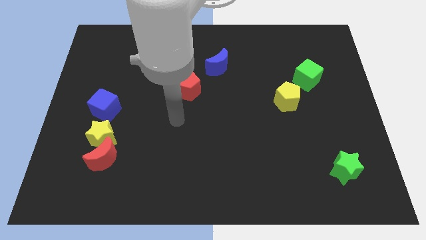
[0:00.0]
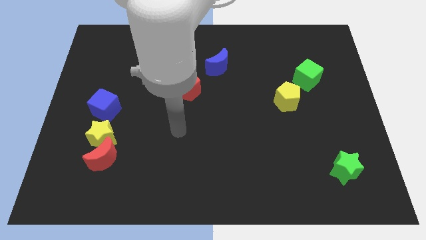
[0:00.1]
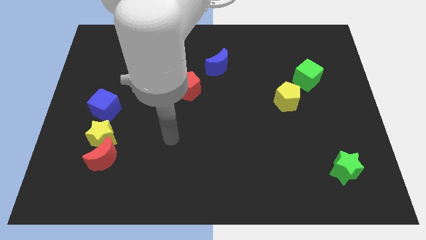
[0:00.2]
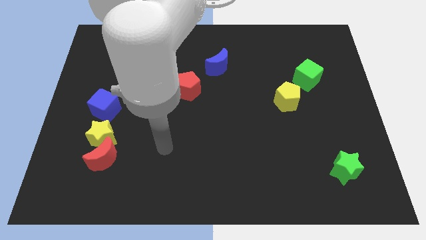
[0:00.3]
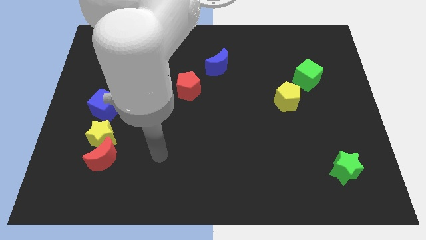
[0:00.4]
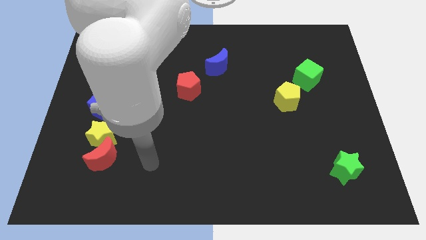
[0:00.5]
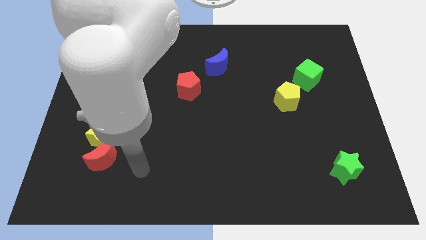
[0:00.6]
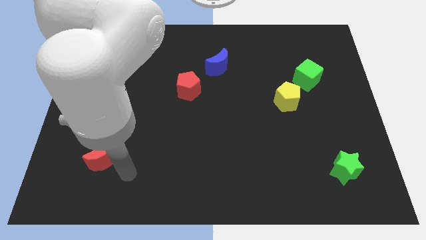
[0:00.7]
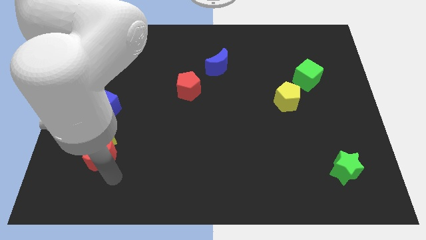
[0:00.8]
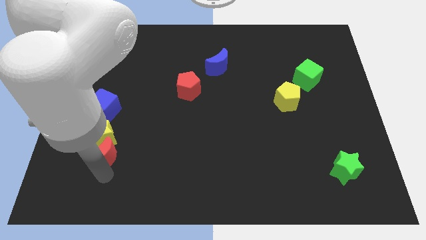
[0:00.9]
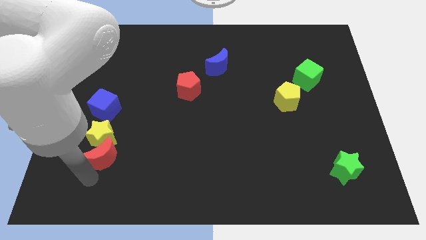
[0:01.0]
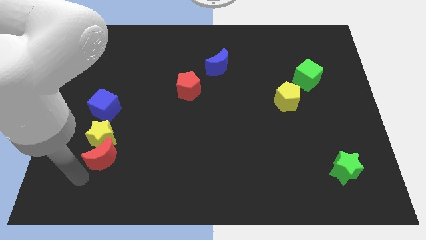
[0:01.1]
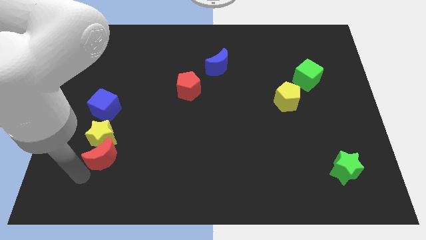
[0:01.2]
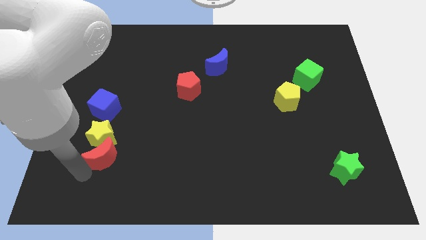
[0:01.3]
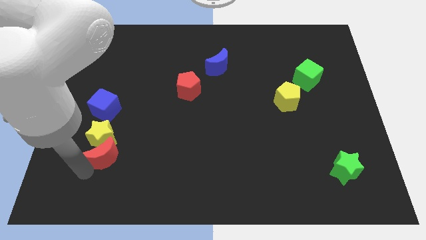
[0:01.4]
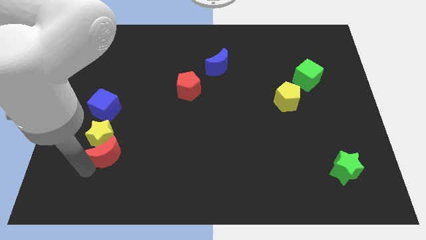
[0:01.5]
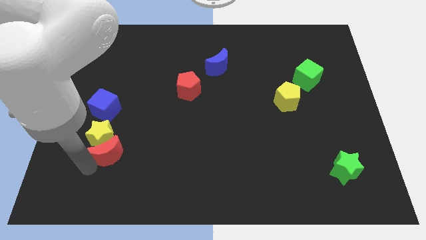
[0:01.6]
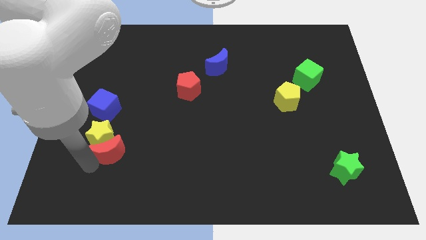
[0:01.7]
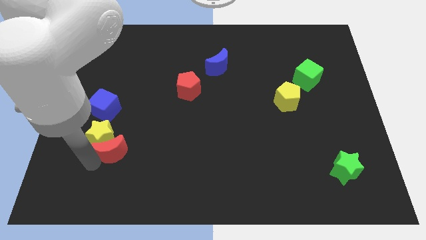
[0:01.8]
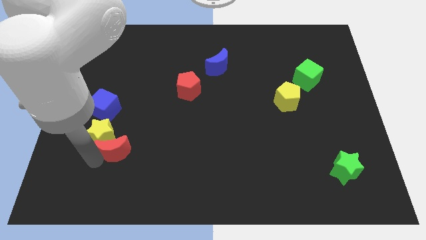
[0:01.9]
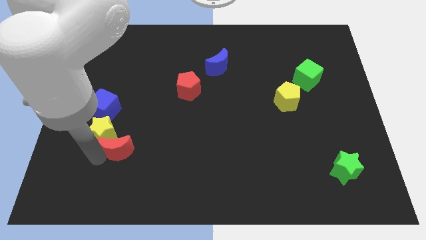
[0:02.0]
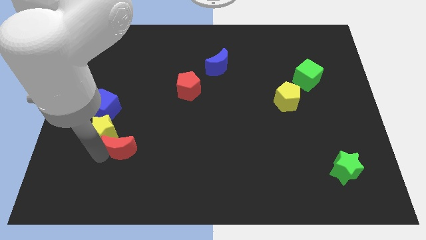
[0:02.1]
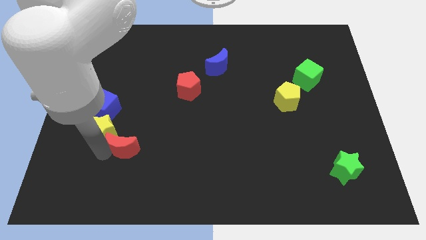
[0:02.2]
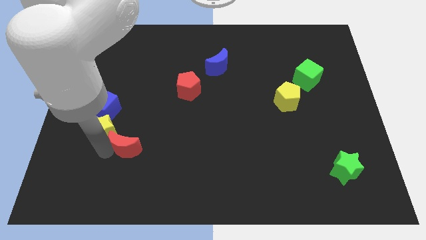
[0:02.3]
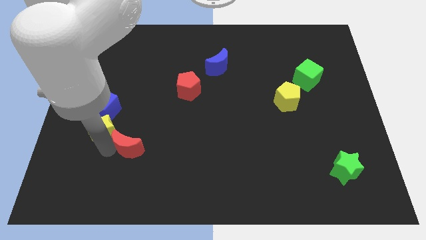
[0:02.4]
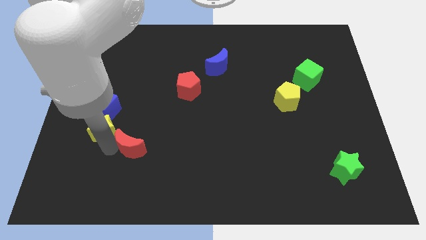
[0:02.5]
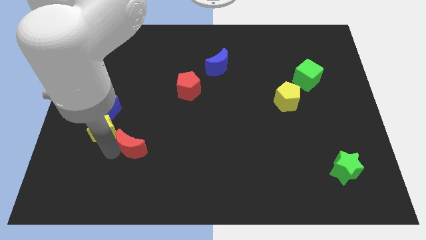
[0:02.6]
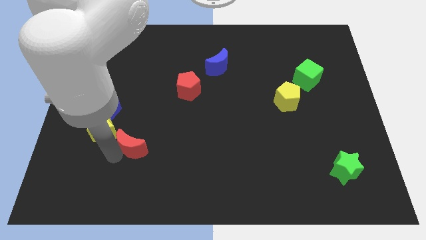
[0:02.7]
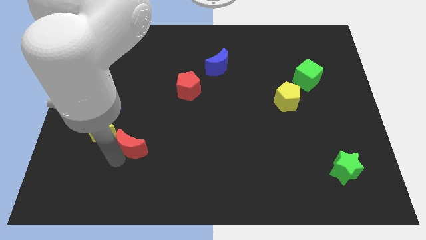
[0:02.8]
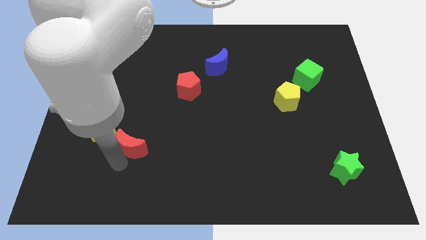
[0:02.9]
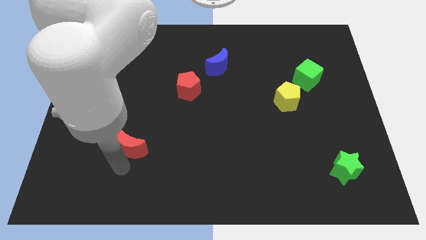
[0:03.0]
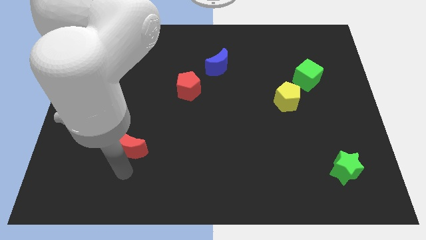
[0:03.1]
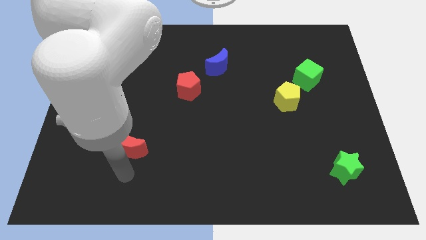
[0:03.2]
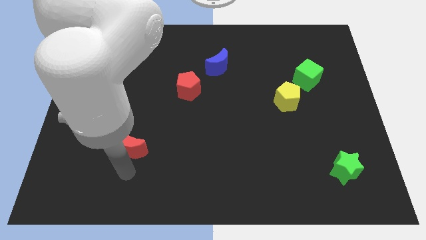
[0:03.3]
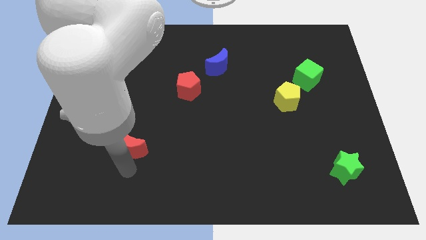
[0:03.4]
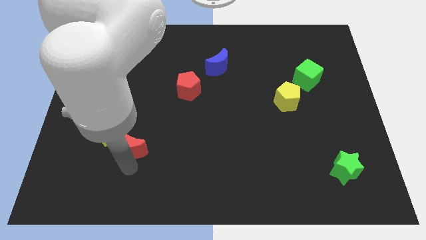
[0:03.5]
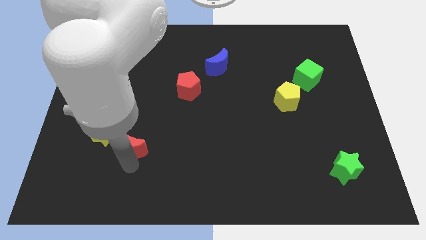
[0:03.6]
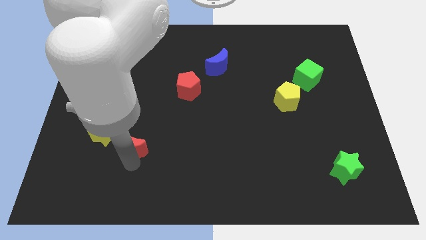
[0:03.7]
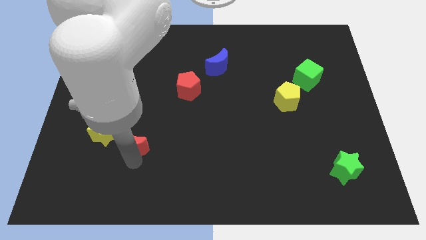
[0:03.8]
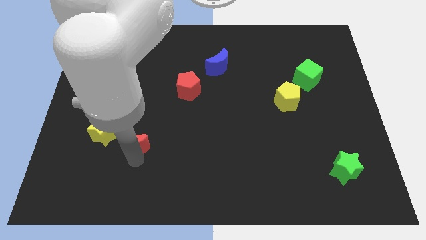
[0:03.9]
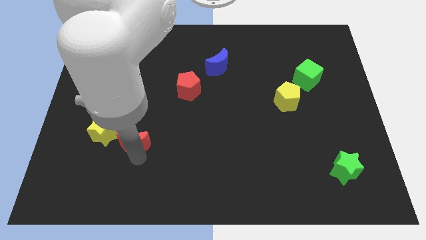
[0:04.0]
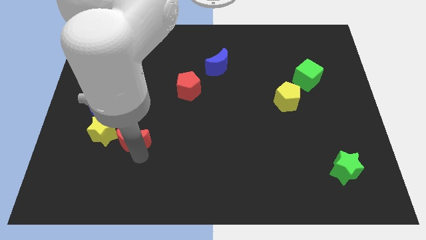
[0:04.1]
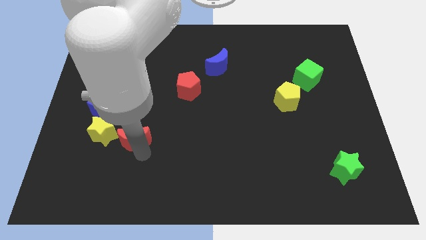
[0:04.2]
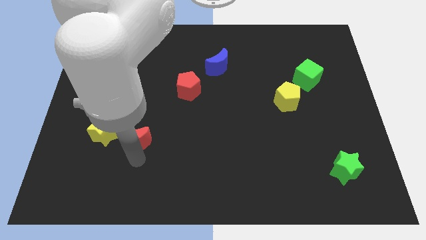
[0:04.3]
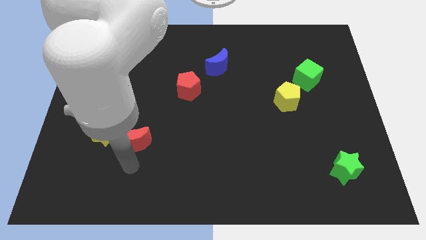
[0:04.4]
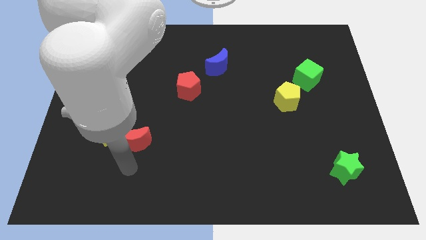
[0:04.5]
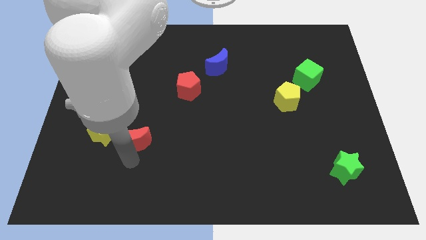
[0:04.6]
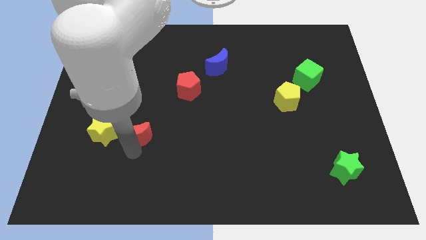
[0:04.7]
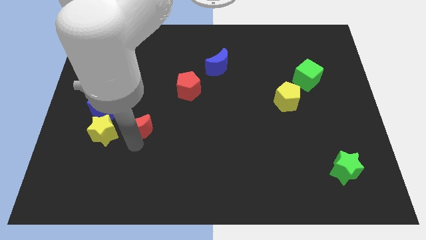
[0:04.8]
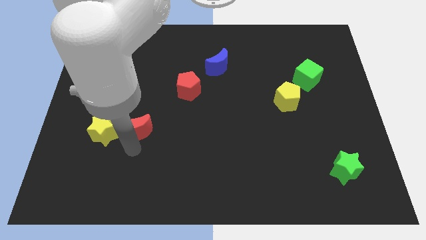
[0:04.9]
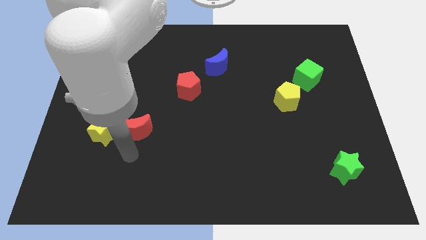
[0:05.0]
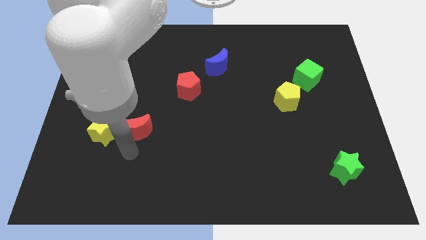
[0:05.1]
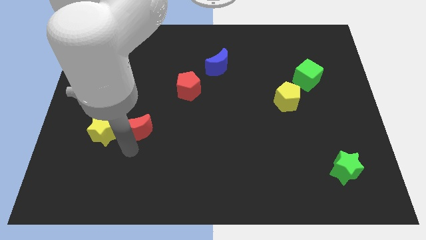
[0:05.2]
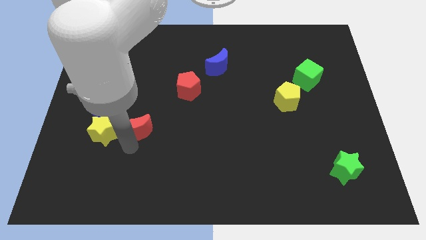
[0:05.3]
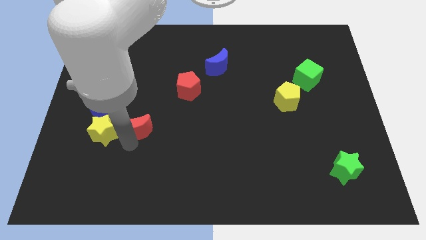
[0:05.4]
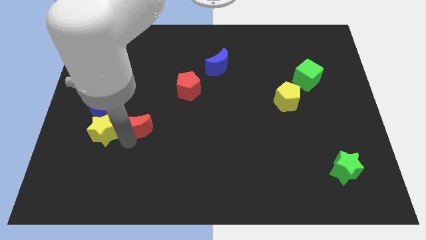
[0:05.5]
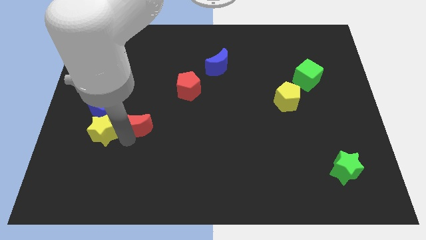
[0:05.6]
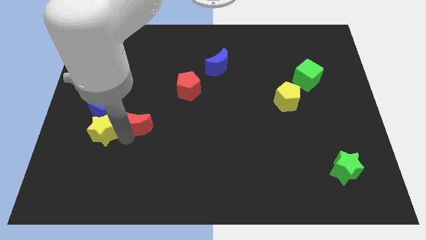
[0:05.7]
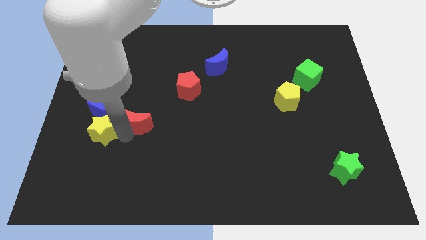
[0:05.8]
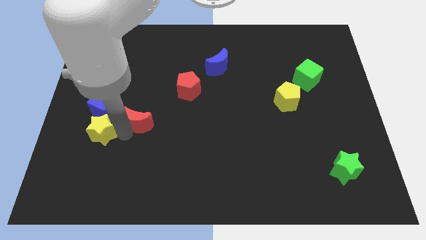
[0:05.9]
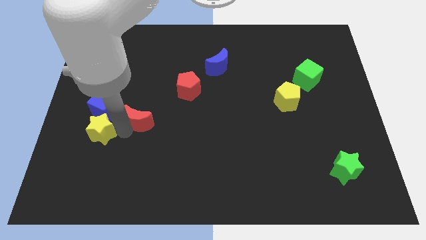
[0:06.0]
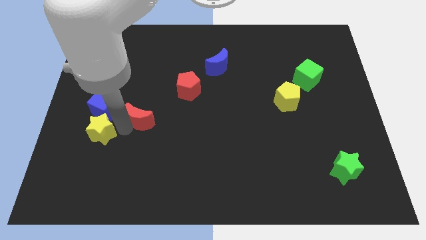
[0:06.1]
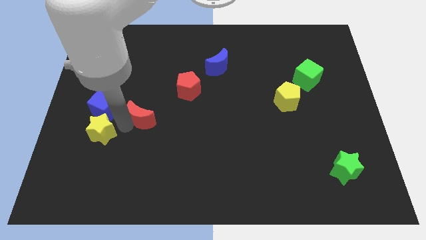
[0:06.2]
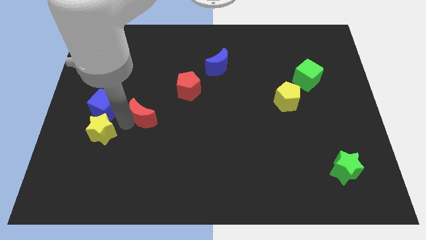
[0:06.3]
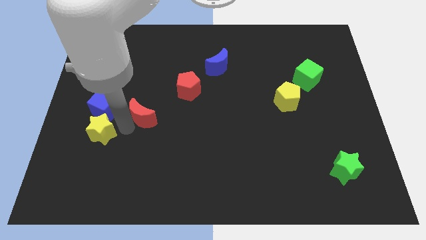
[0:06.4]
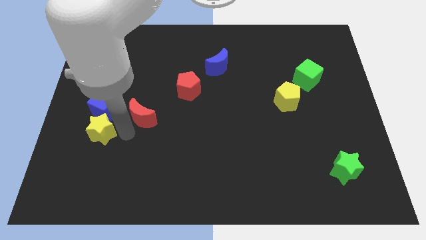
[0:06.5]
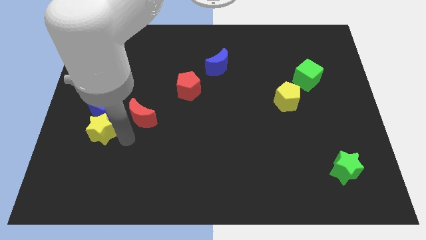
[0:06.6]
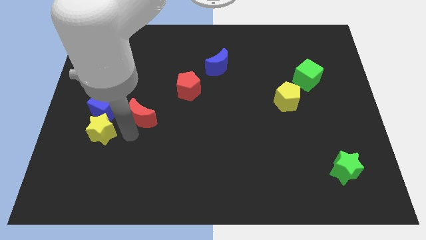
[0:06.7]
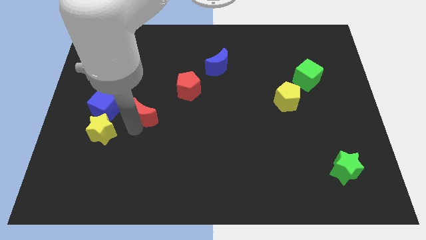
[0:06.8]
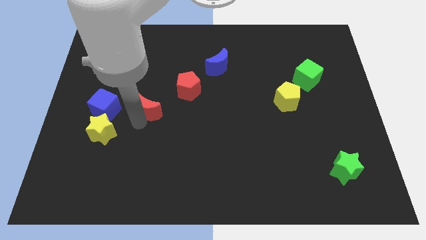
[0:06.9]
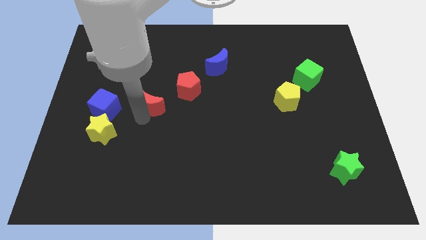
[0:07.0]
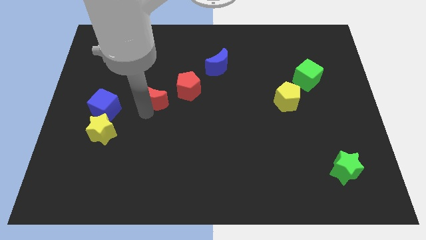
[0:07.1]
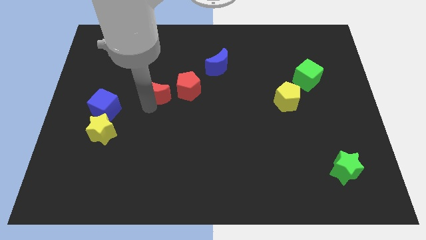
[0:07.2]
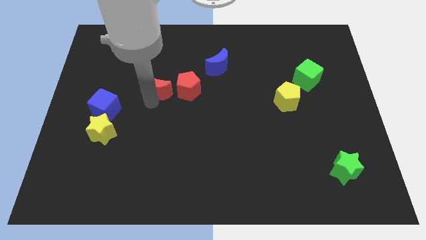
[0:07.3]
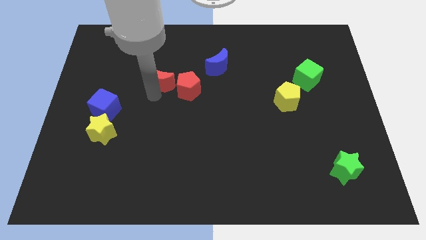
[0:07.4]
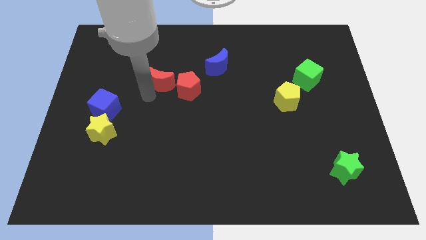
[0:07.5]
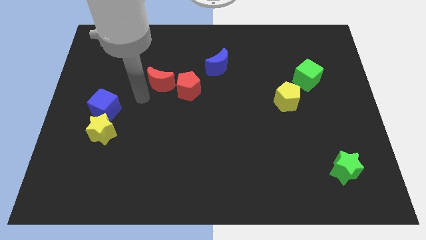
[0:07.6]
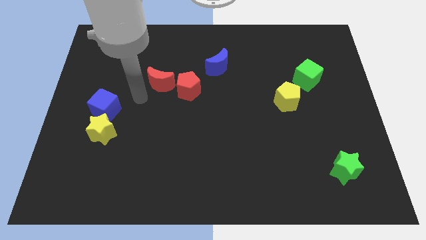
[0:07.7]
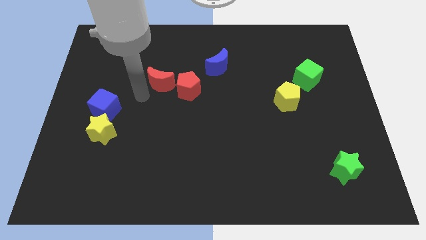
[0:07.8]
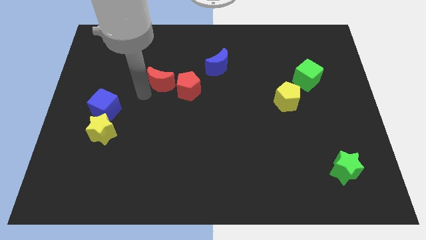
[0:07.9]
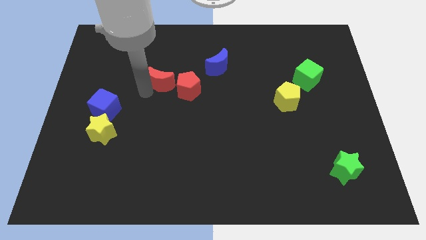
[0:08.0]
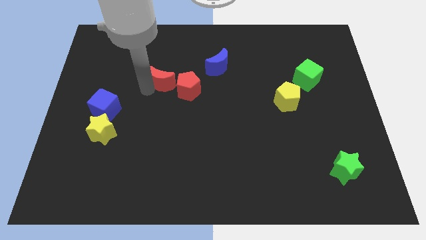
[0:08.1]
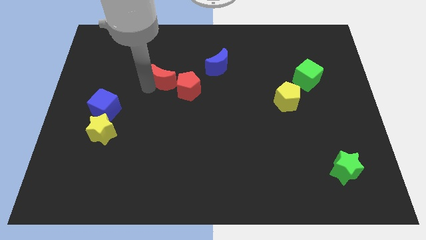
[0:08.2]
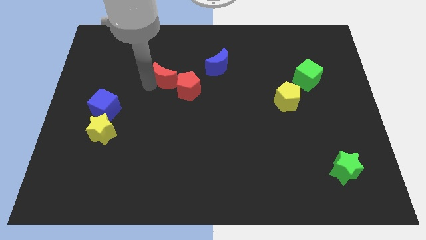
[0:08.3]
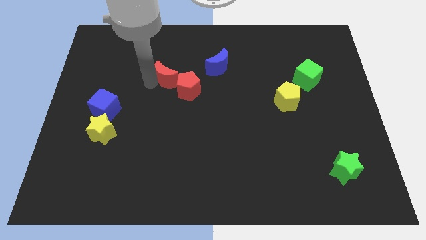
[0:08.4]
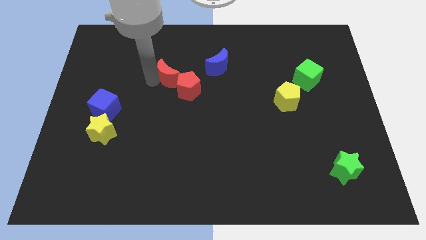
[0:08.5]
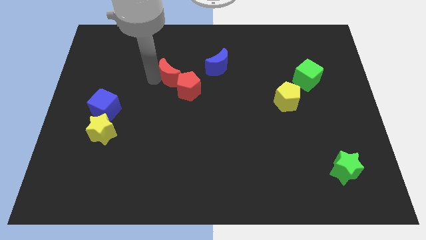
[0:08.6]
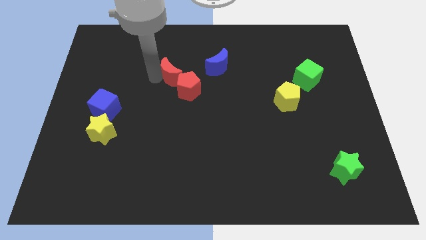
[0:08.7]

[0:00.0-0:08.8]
put the red moon to the top side of the red pentagon
